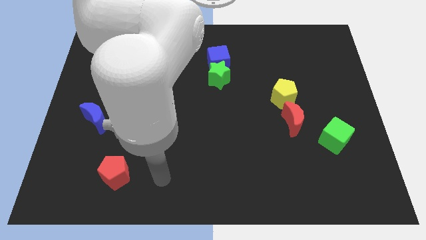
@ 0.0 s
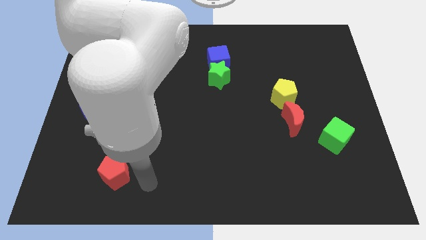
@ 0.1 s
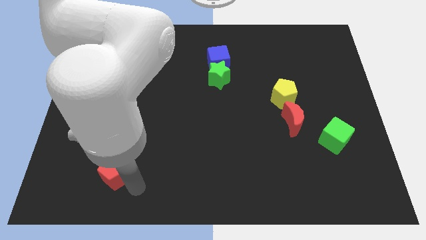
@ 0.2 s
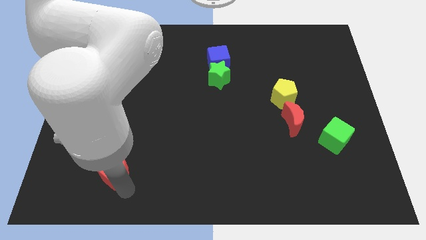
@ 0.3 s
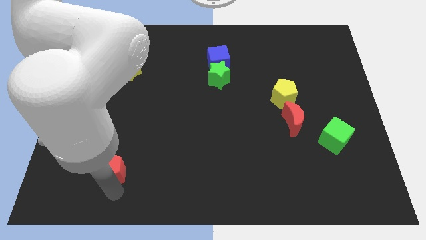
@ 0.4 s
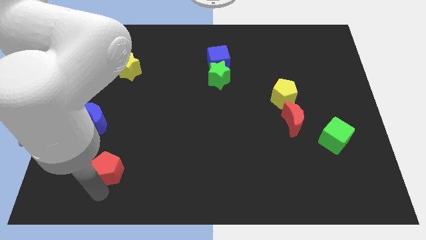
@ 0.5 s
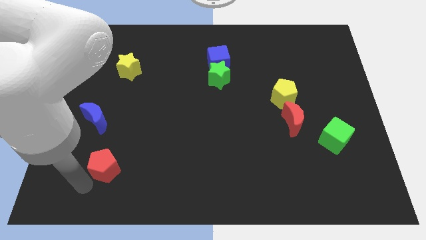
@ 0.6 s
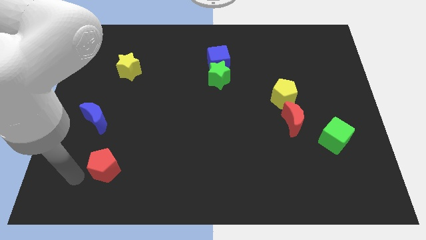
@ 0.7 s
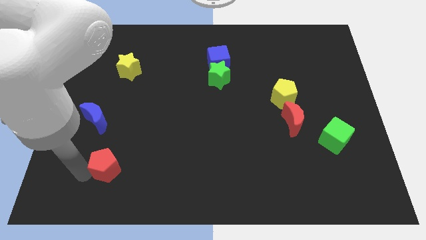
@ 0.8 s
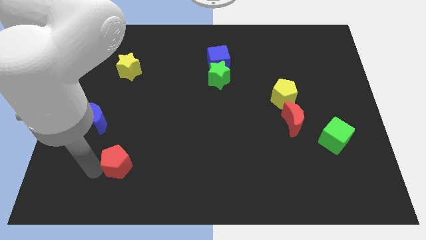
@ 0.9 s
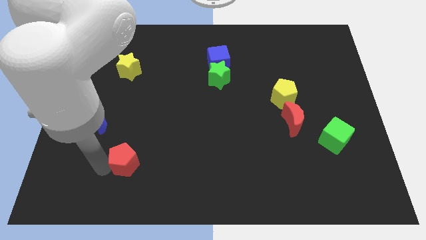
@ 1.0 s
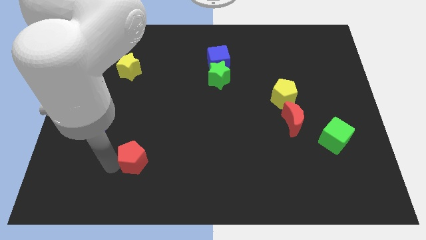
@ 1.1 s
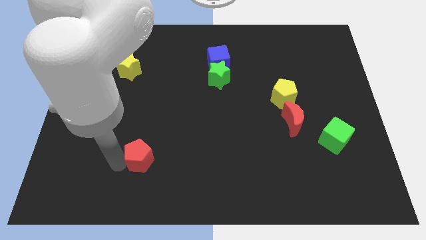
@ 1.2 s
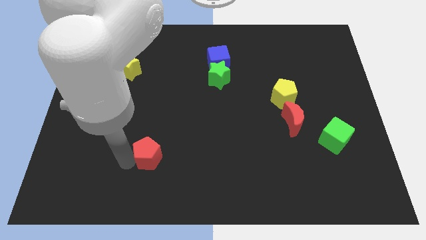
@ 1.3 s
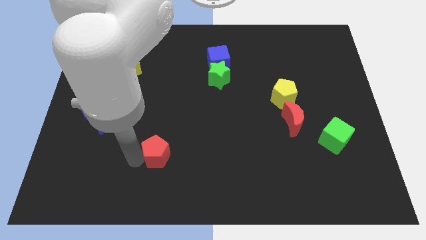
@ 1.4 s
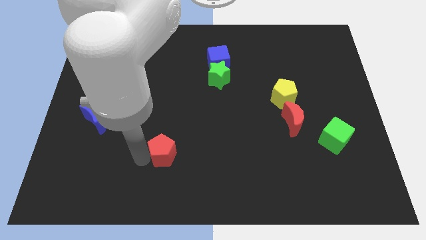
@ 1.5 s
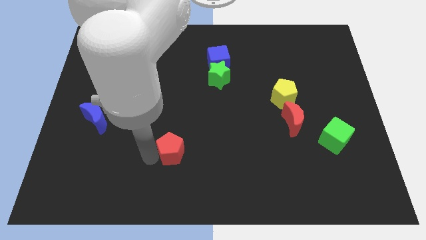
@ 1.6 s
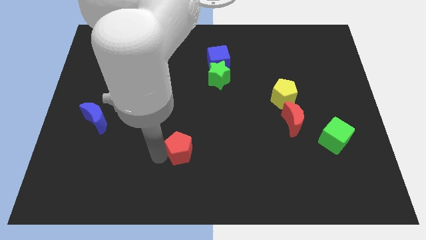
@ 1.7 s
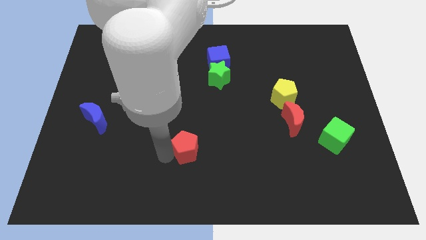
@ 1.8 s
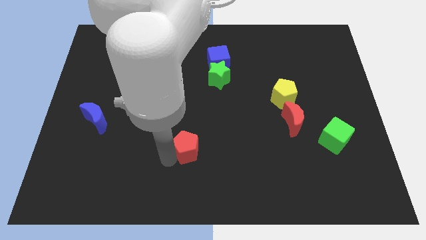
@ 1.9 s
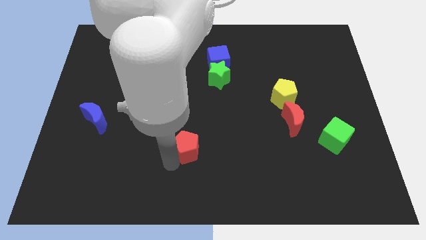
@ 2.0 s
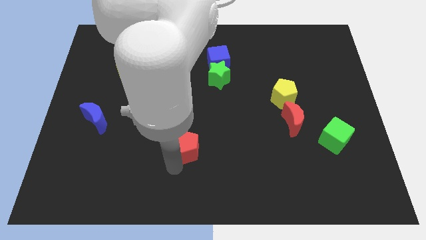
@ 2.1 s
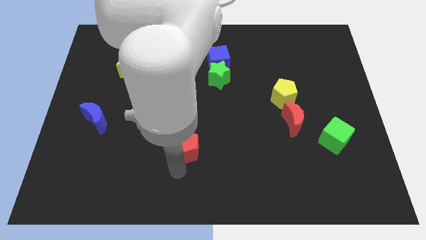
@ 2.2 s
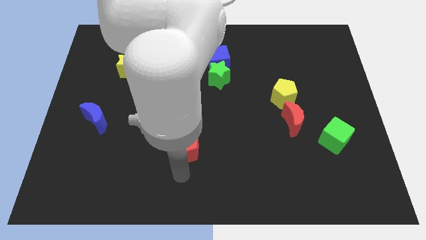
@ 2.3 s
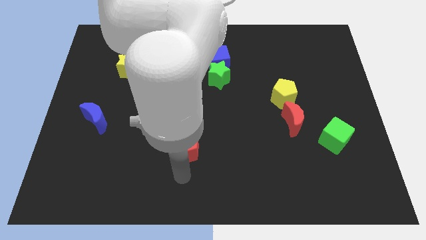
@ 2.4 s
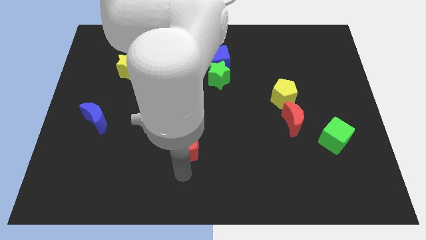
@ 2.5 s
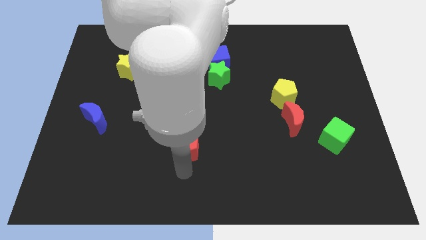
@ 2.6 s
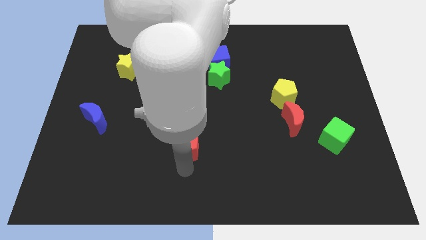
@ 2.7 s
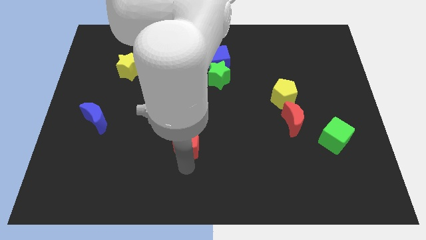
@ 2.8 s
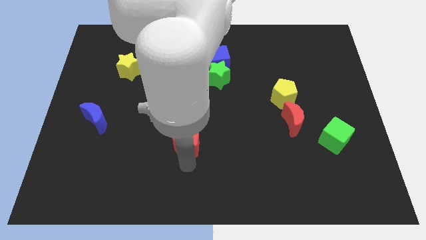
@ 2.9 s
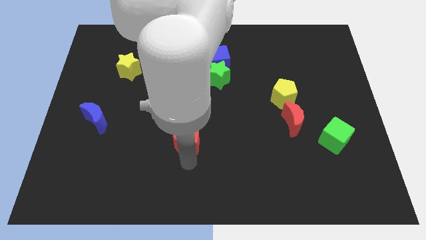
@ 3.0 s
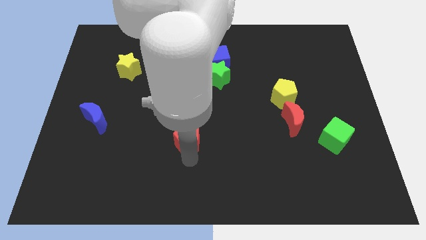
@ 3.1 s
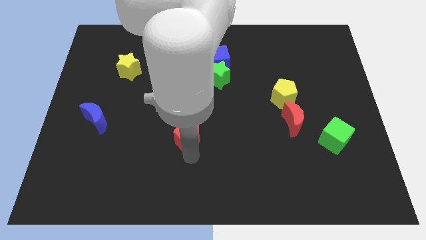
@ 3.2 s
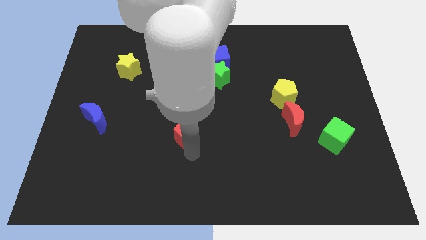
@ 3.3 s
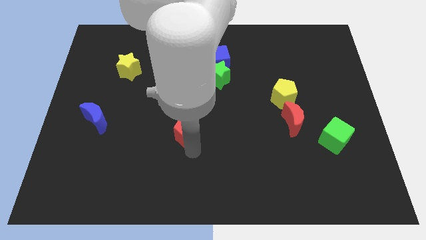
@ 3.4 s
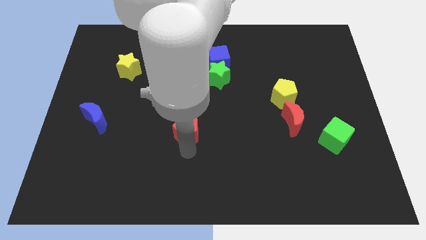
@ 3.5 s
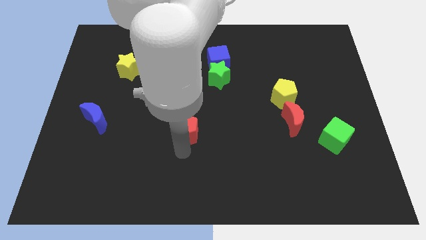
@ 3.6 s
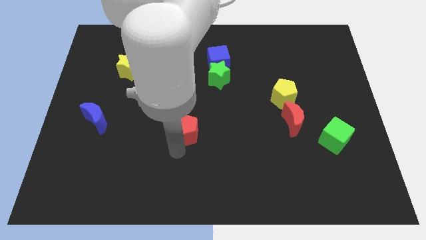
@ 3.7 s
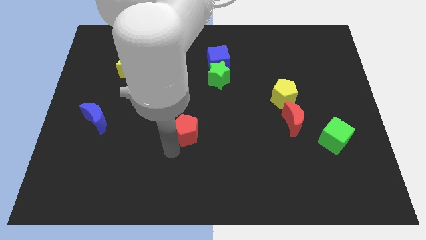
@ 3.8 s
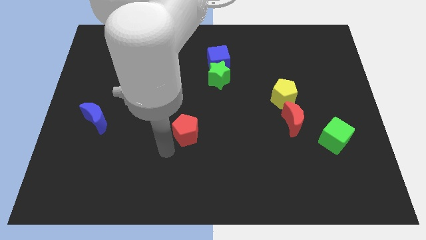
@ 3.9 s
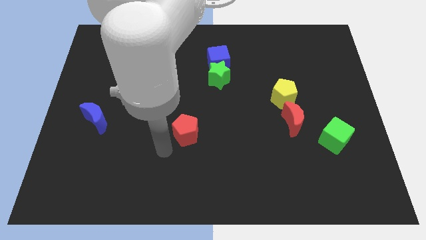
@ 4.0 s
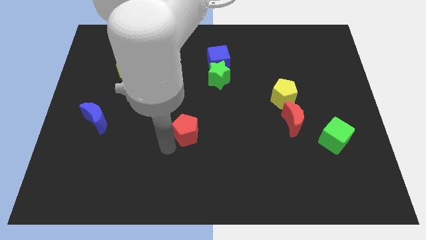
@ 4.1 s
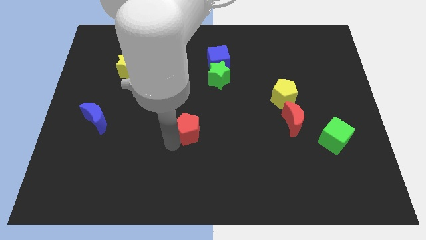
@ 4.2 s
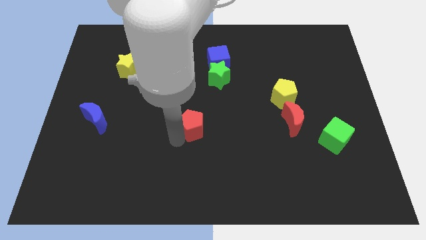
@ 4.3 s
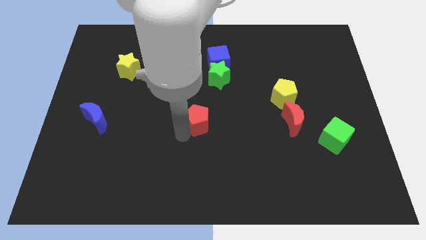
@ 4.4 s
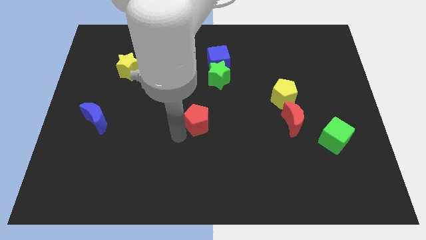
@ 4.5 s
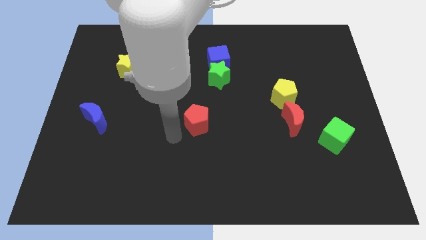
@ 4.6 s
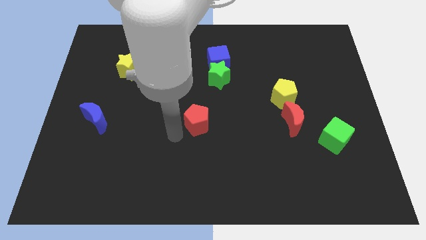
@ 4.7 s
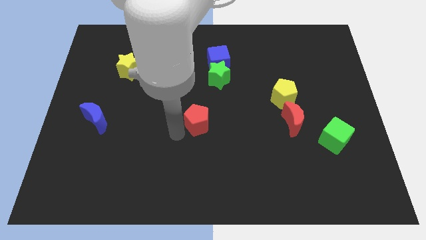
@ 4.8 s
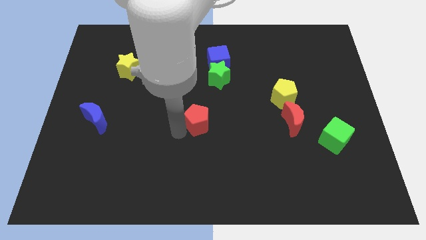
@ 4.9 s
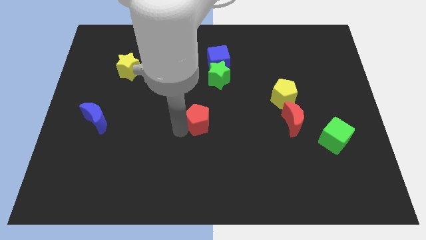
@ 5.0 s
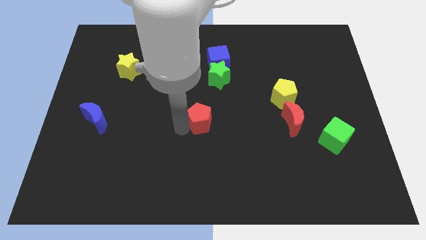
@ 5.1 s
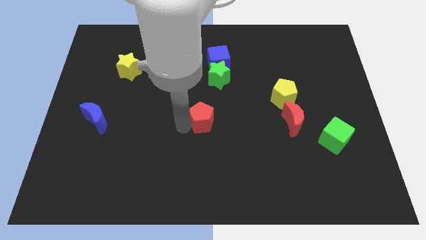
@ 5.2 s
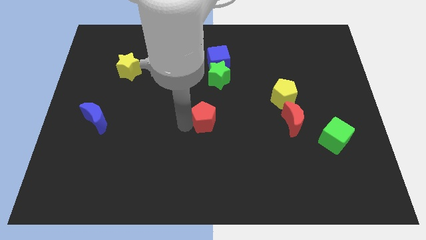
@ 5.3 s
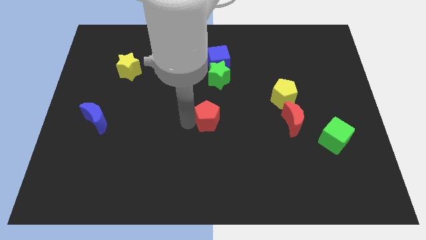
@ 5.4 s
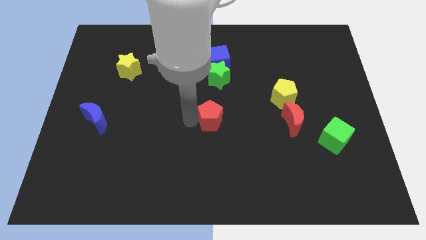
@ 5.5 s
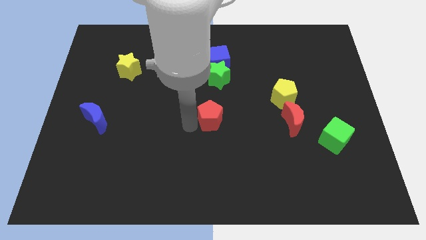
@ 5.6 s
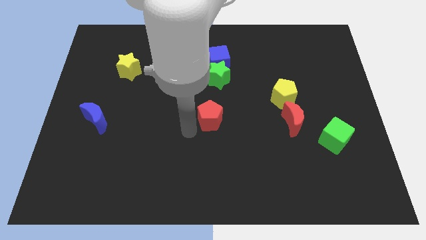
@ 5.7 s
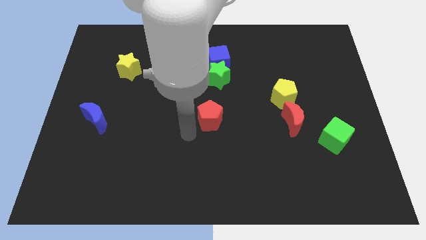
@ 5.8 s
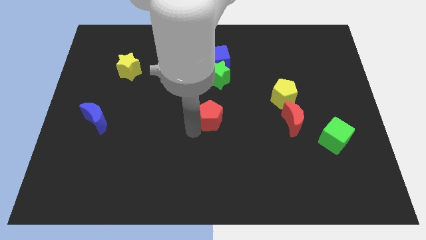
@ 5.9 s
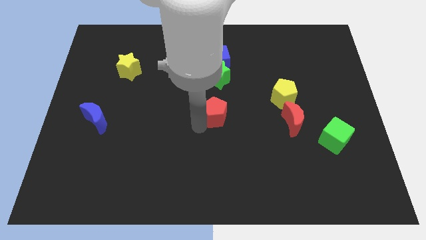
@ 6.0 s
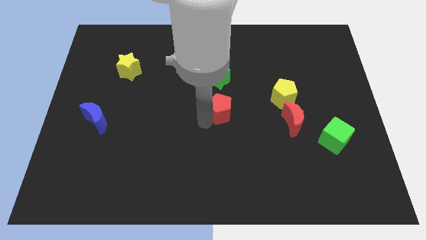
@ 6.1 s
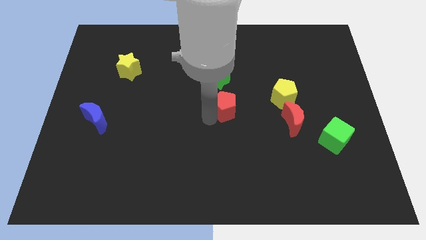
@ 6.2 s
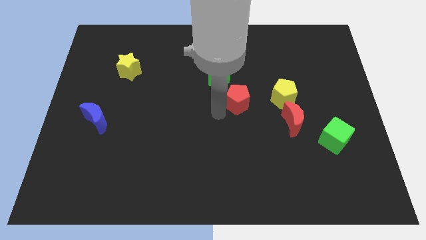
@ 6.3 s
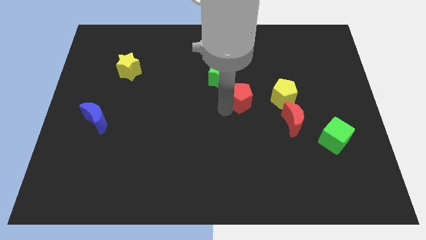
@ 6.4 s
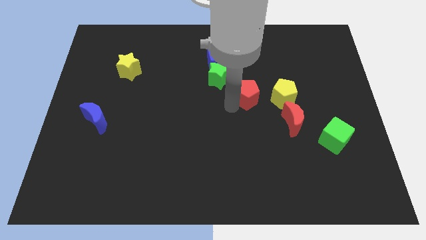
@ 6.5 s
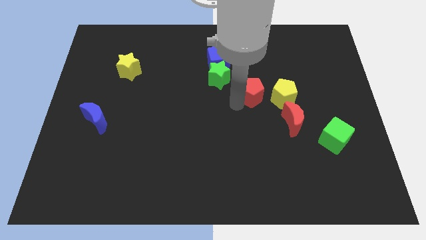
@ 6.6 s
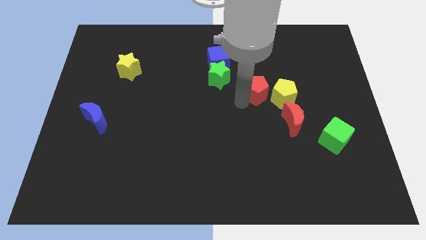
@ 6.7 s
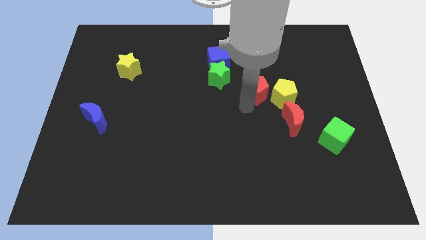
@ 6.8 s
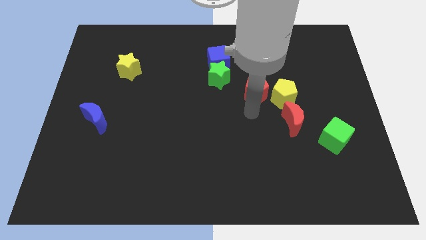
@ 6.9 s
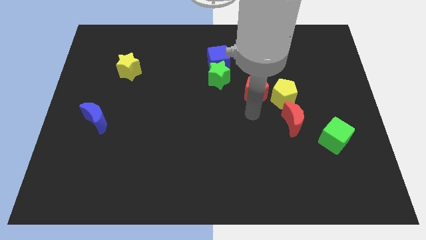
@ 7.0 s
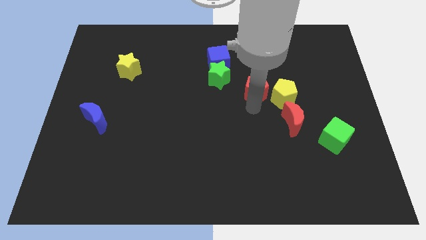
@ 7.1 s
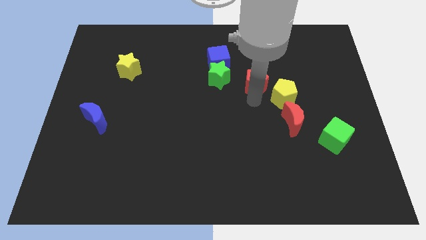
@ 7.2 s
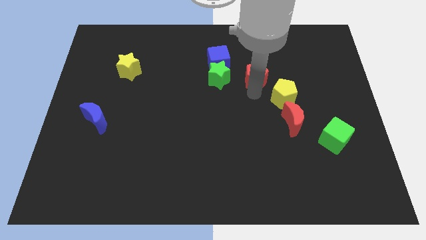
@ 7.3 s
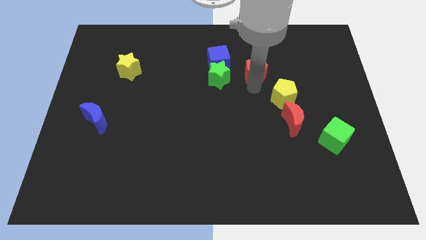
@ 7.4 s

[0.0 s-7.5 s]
put the red pentagon just right of the blue cube
